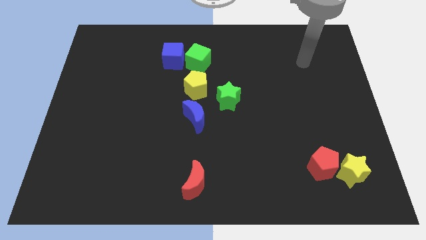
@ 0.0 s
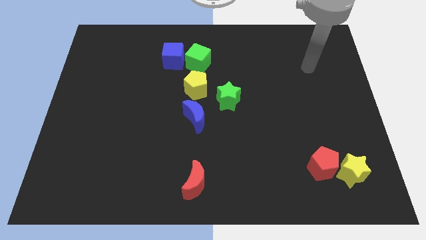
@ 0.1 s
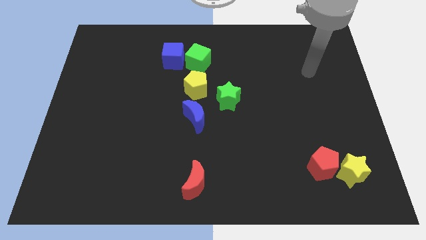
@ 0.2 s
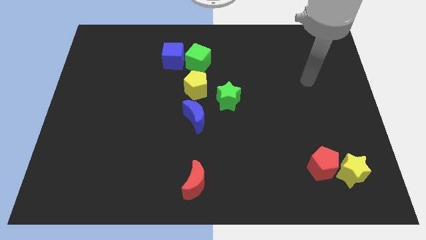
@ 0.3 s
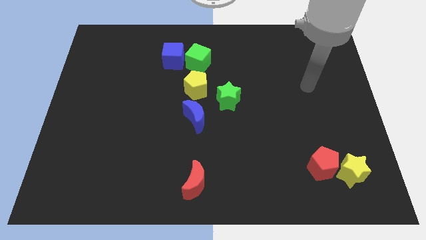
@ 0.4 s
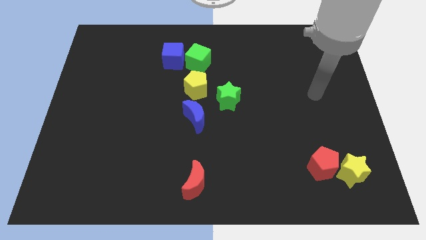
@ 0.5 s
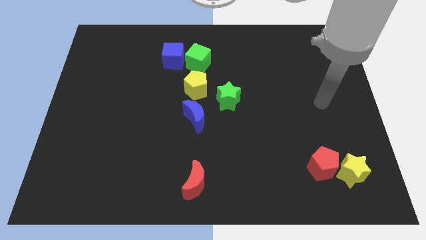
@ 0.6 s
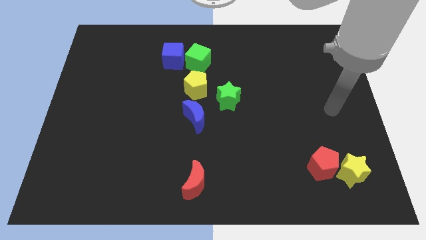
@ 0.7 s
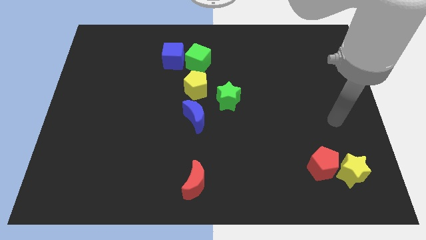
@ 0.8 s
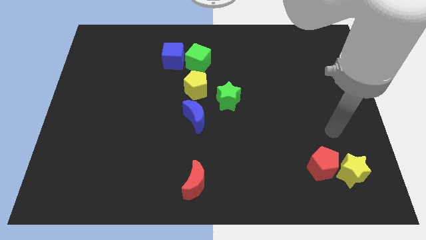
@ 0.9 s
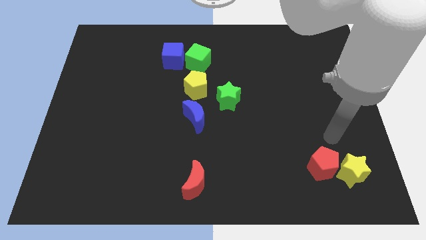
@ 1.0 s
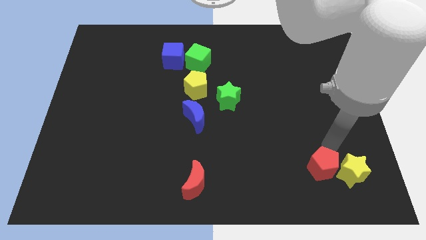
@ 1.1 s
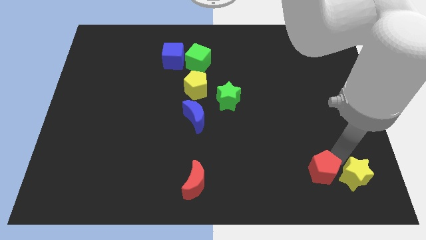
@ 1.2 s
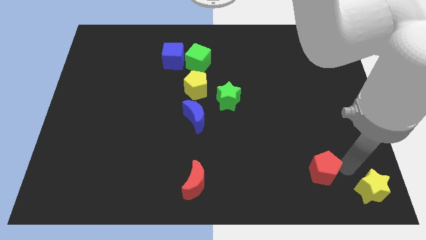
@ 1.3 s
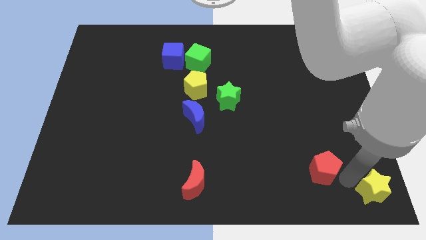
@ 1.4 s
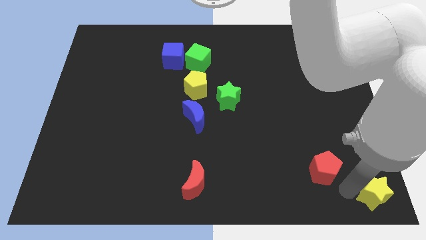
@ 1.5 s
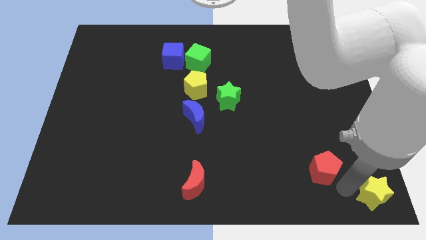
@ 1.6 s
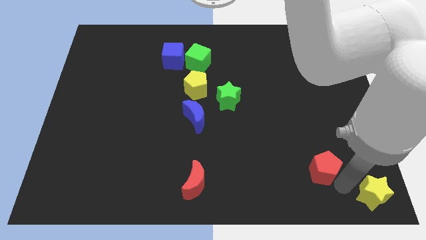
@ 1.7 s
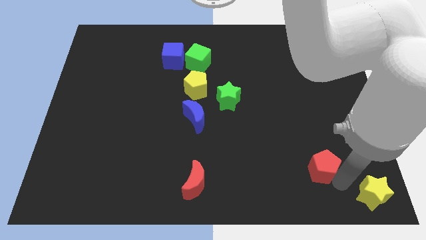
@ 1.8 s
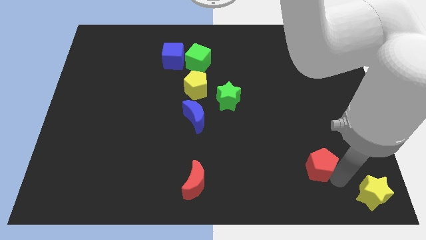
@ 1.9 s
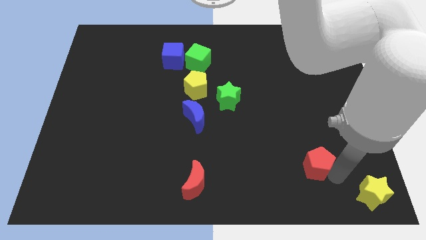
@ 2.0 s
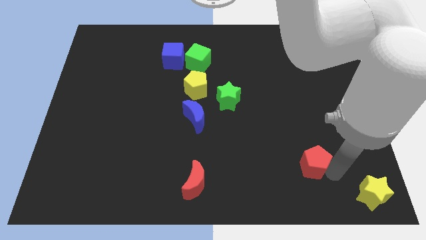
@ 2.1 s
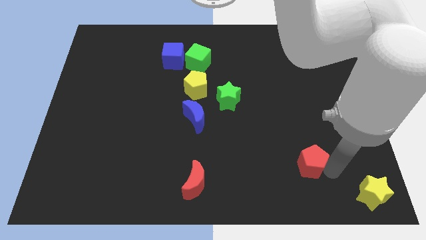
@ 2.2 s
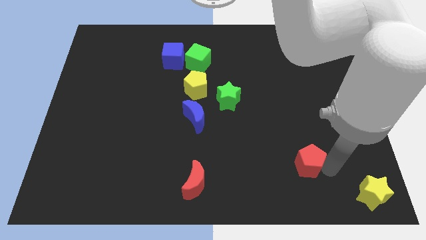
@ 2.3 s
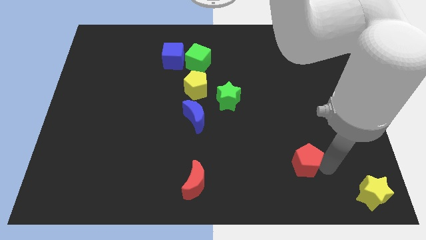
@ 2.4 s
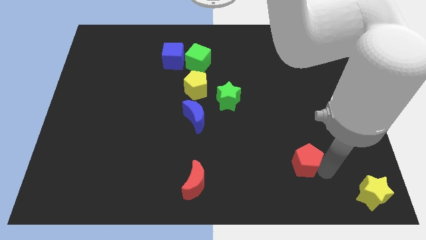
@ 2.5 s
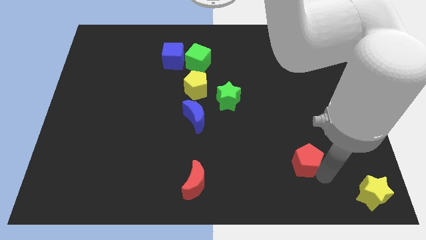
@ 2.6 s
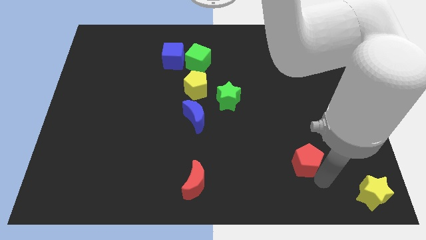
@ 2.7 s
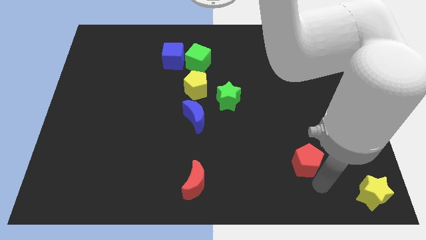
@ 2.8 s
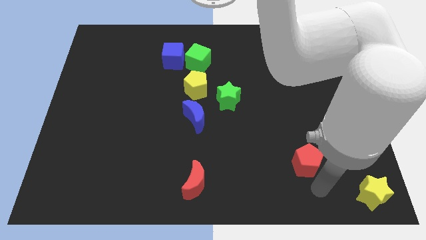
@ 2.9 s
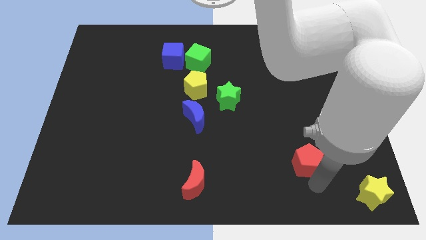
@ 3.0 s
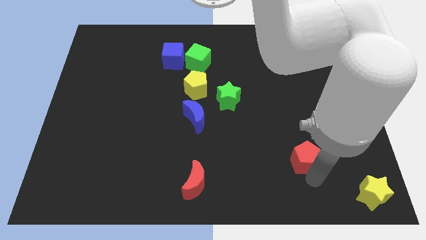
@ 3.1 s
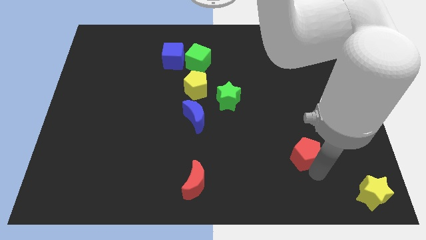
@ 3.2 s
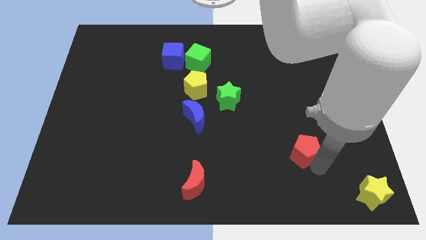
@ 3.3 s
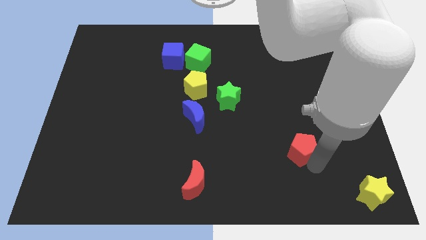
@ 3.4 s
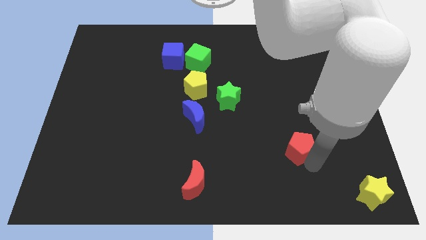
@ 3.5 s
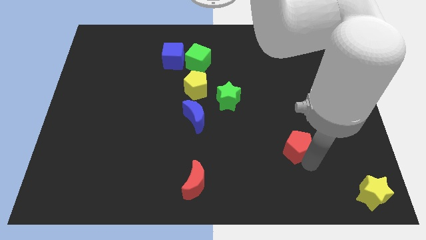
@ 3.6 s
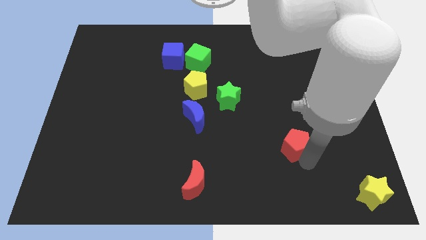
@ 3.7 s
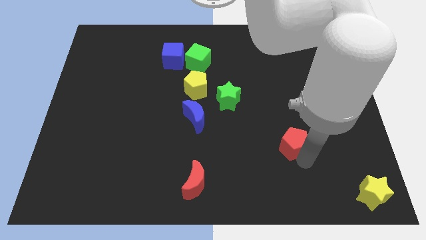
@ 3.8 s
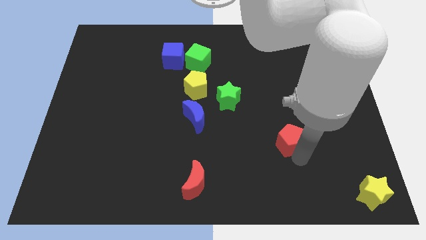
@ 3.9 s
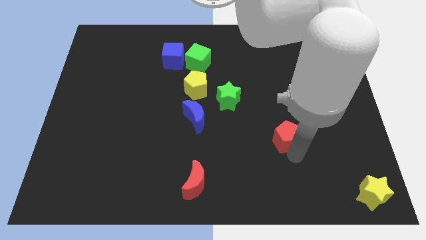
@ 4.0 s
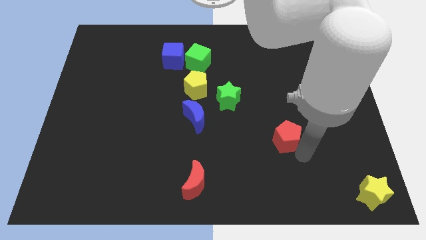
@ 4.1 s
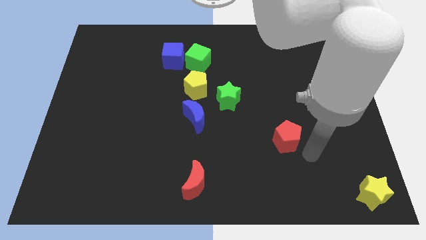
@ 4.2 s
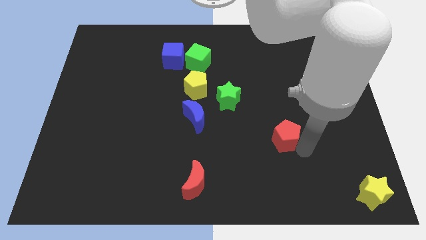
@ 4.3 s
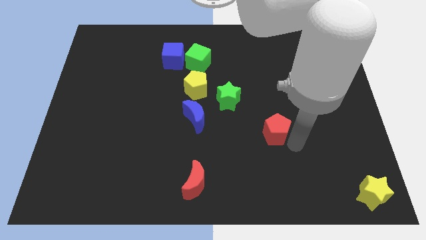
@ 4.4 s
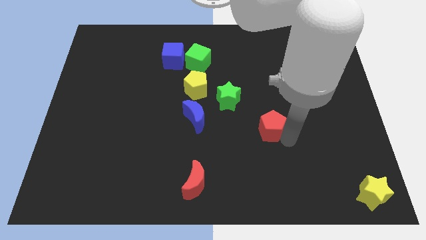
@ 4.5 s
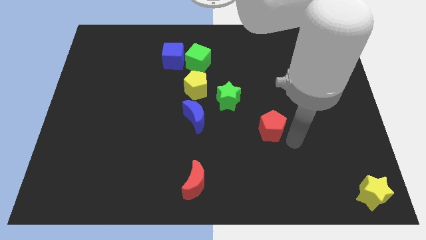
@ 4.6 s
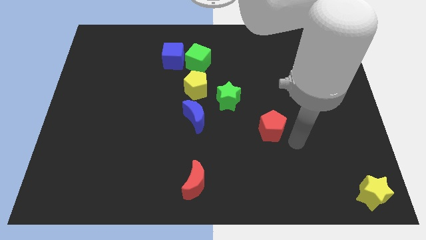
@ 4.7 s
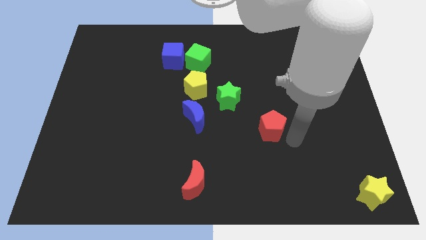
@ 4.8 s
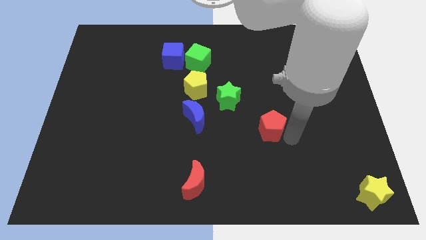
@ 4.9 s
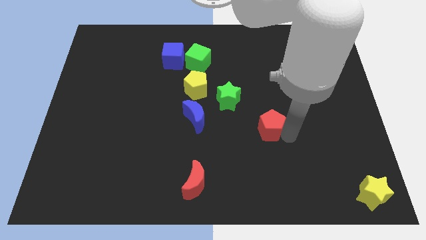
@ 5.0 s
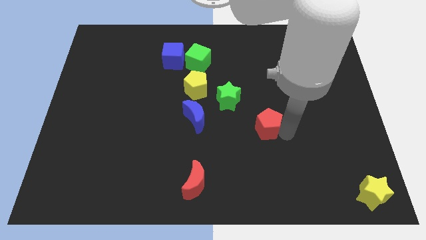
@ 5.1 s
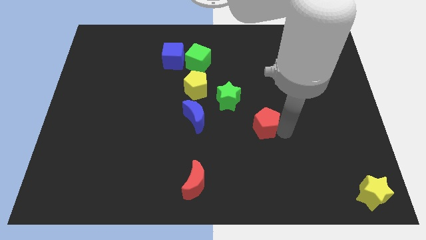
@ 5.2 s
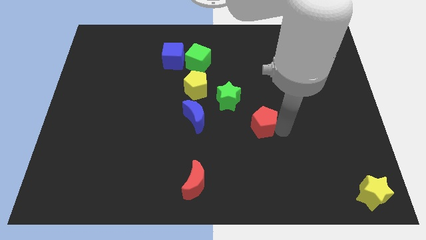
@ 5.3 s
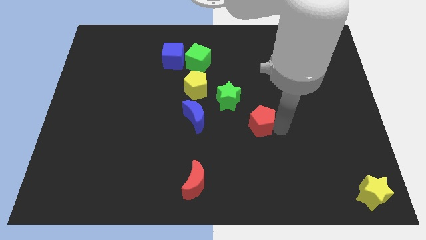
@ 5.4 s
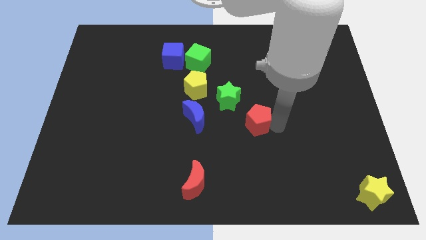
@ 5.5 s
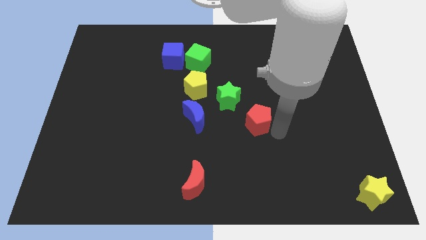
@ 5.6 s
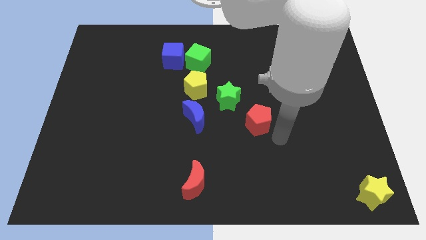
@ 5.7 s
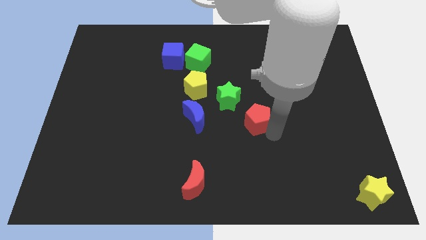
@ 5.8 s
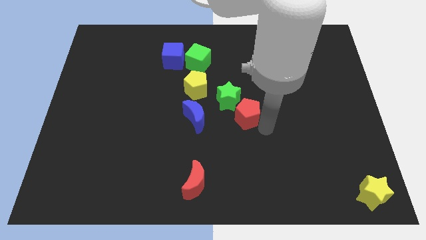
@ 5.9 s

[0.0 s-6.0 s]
move the red pentagon close to the green star

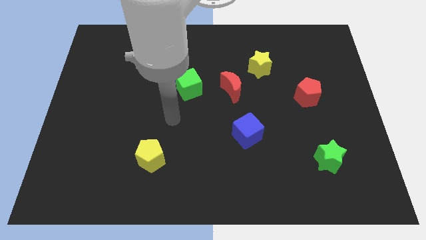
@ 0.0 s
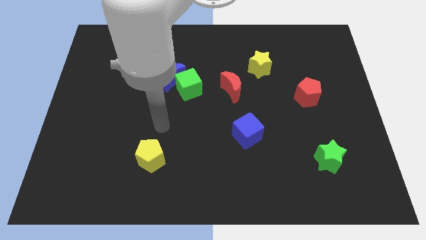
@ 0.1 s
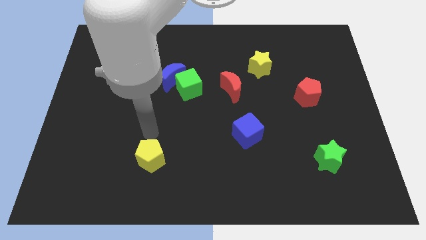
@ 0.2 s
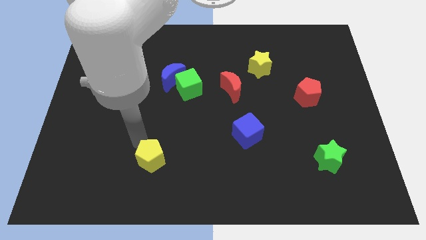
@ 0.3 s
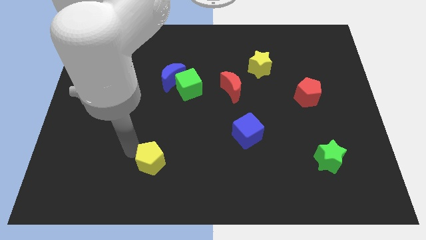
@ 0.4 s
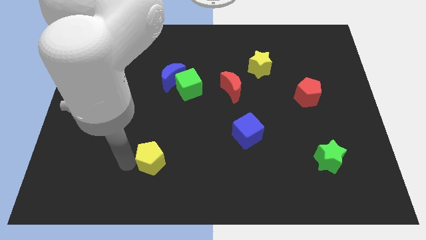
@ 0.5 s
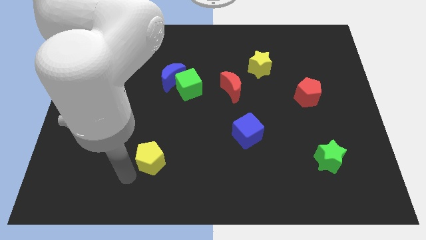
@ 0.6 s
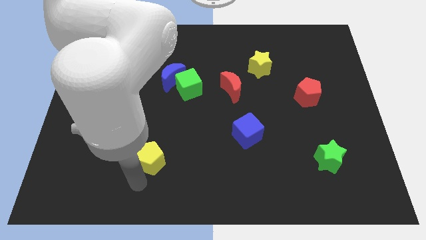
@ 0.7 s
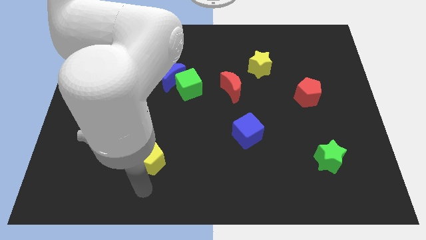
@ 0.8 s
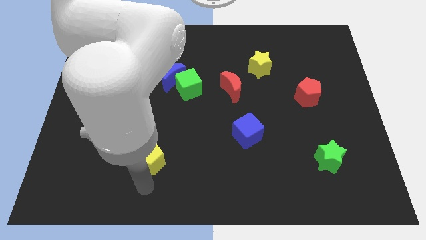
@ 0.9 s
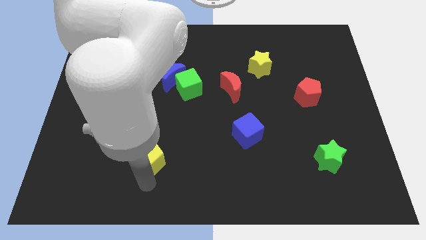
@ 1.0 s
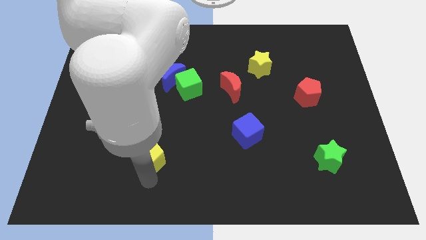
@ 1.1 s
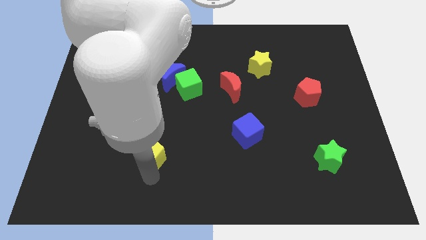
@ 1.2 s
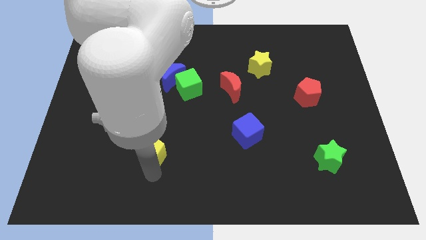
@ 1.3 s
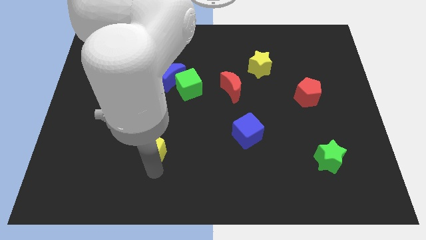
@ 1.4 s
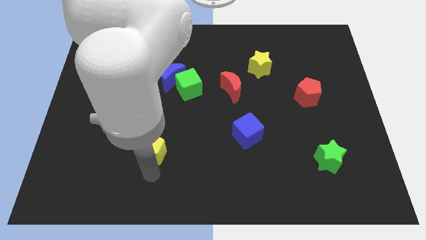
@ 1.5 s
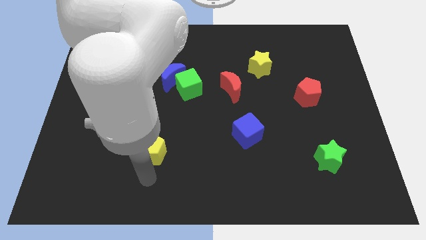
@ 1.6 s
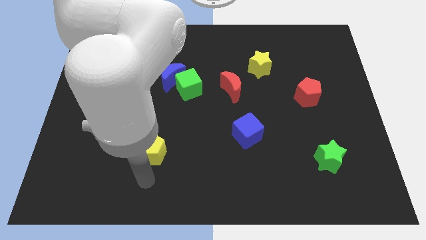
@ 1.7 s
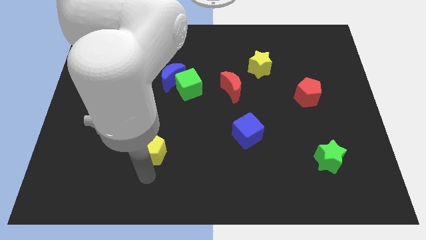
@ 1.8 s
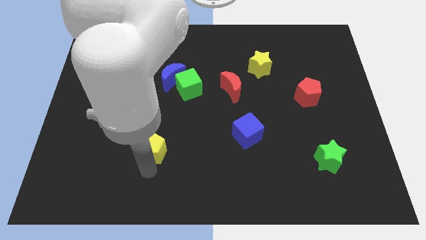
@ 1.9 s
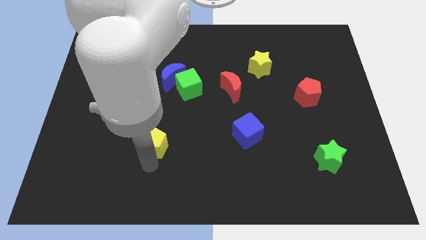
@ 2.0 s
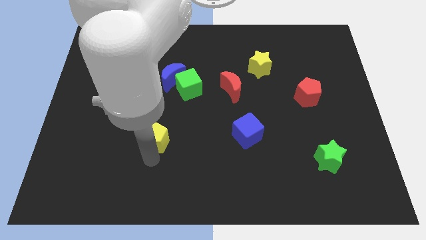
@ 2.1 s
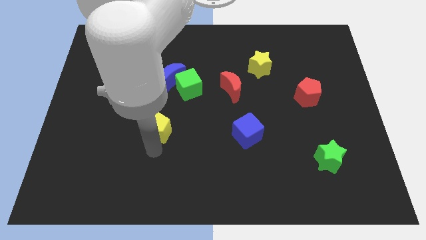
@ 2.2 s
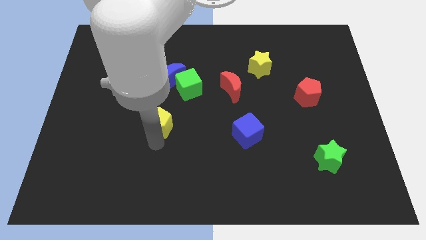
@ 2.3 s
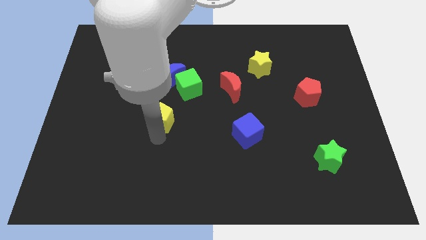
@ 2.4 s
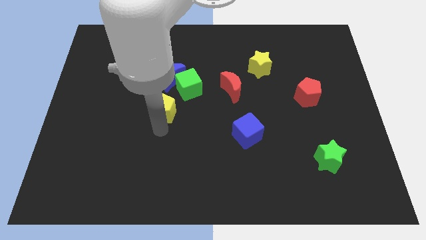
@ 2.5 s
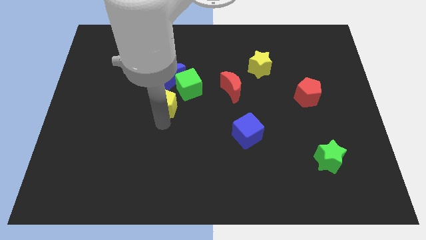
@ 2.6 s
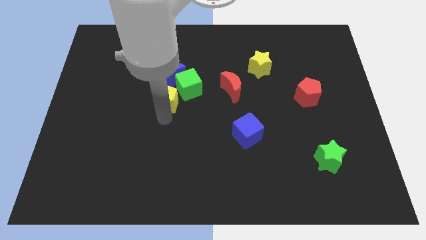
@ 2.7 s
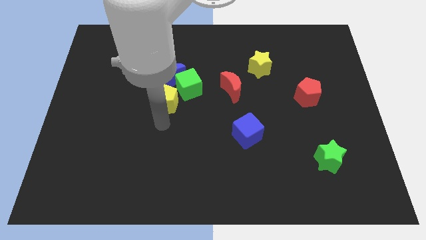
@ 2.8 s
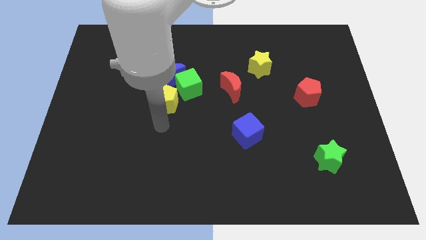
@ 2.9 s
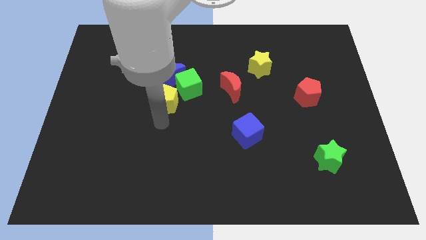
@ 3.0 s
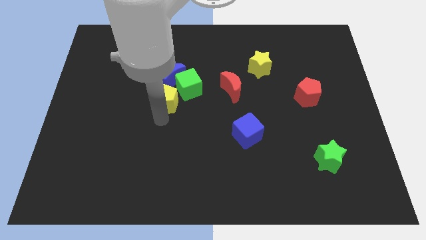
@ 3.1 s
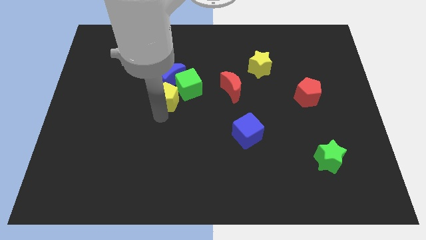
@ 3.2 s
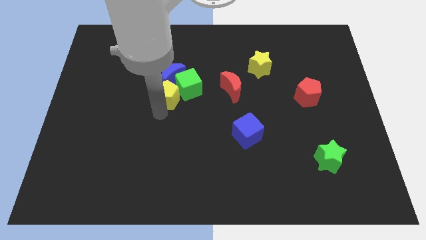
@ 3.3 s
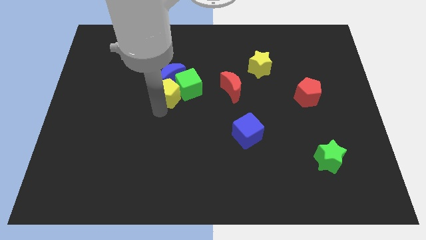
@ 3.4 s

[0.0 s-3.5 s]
slide the yellow pentagon towards the blue moon
